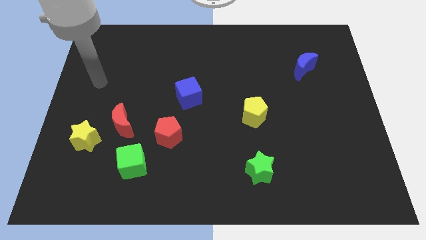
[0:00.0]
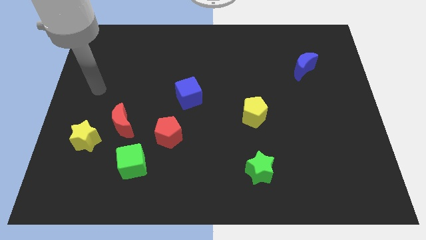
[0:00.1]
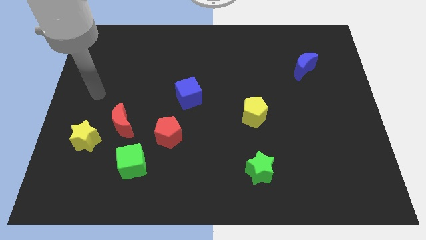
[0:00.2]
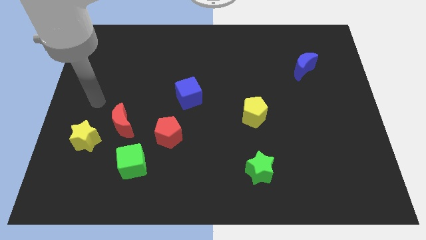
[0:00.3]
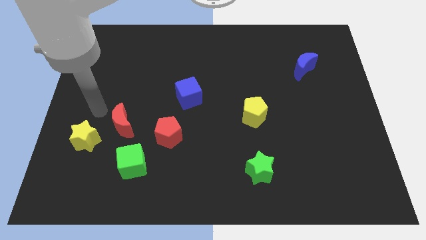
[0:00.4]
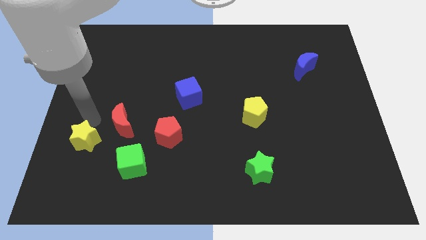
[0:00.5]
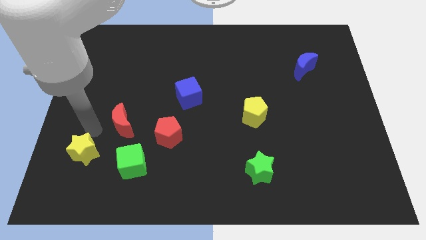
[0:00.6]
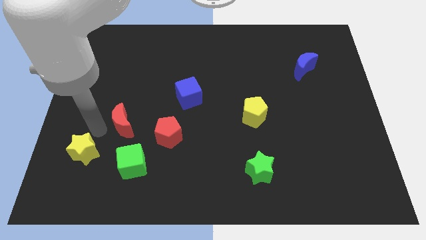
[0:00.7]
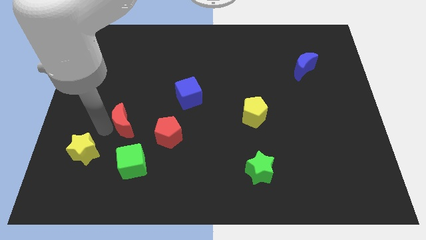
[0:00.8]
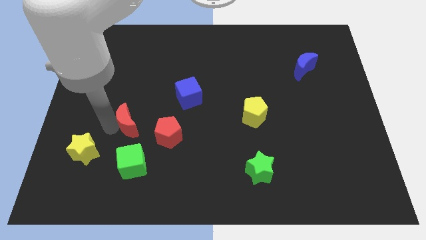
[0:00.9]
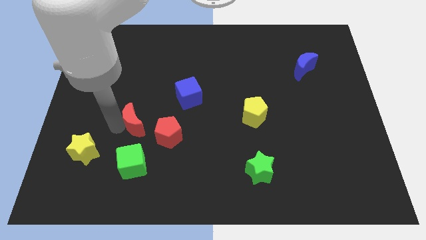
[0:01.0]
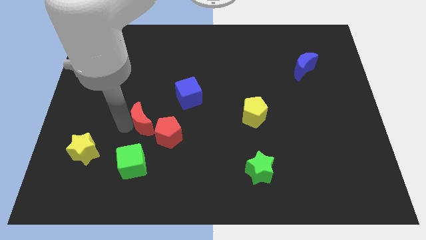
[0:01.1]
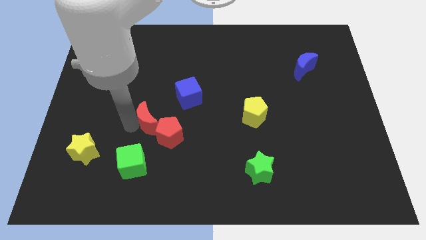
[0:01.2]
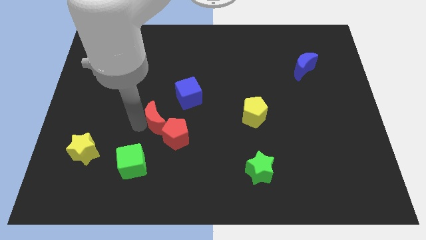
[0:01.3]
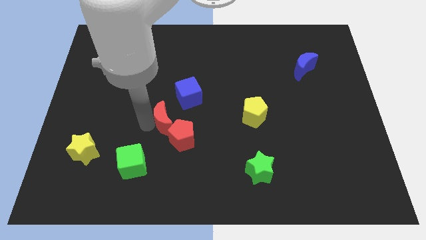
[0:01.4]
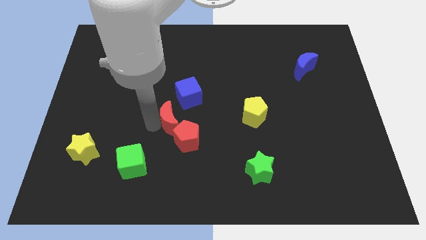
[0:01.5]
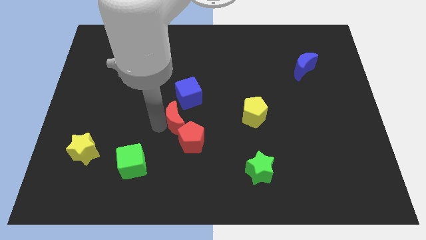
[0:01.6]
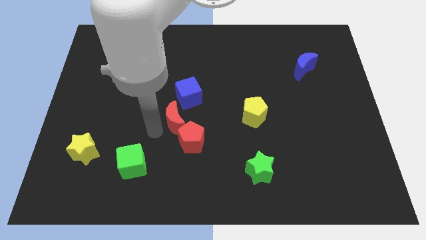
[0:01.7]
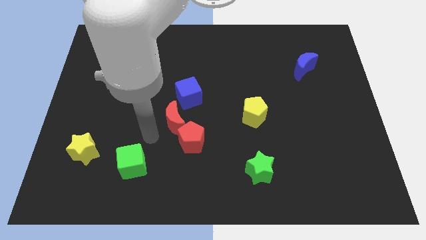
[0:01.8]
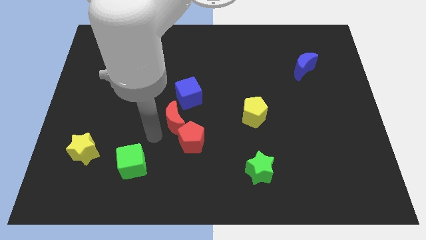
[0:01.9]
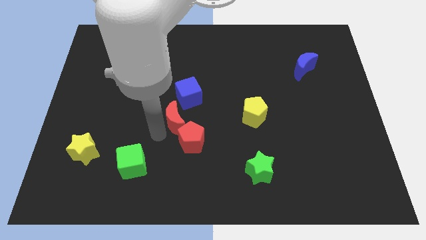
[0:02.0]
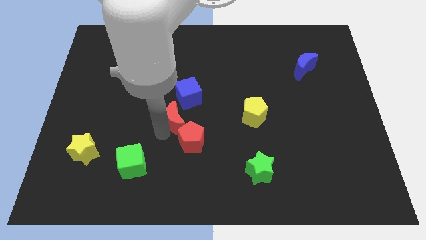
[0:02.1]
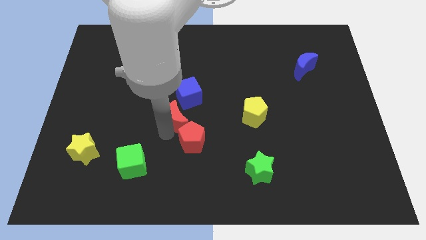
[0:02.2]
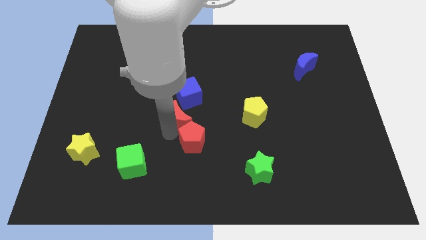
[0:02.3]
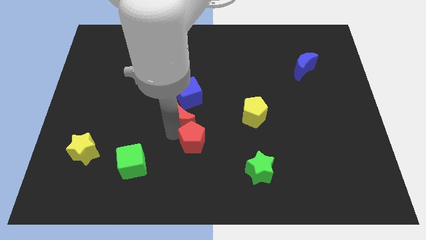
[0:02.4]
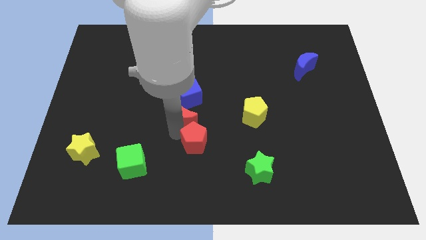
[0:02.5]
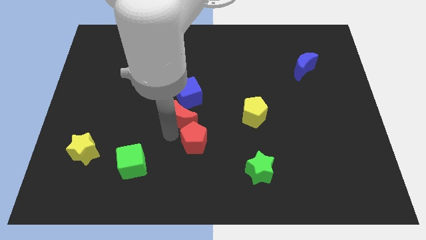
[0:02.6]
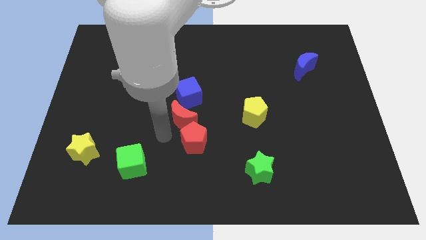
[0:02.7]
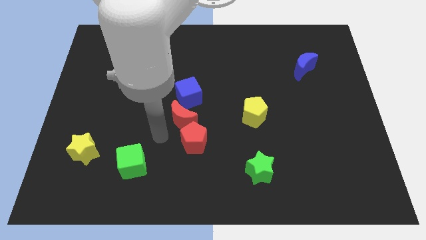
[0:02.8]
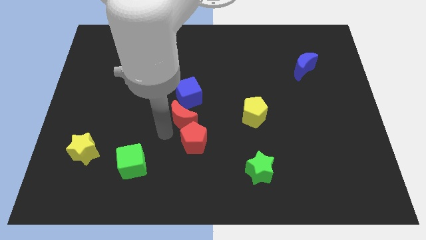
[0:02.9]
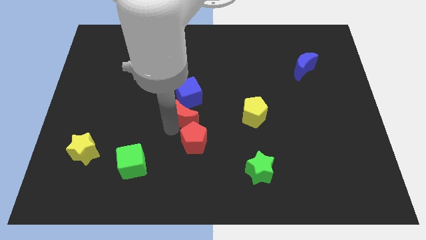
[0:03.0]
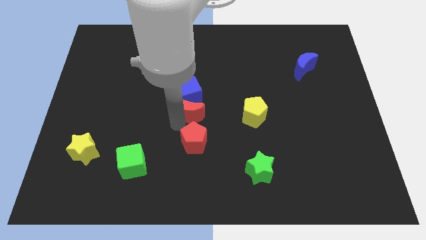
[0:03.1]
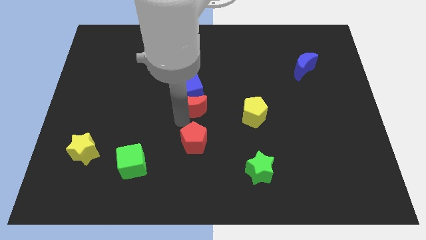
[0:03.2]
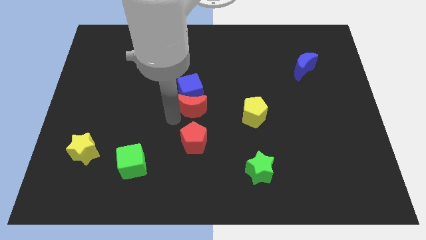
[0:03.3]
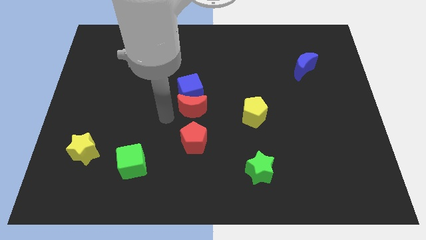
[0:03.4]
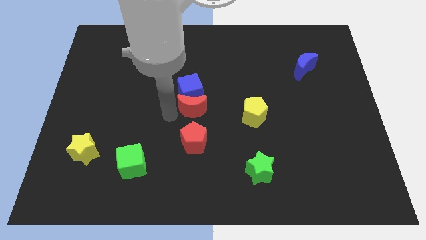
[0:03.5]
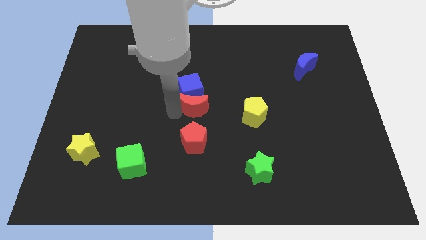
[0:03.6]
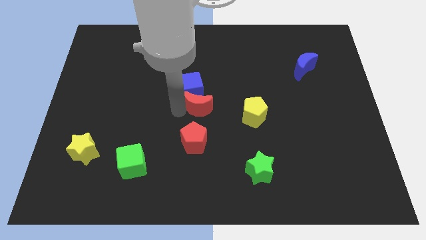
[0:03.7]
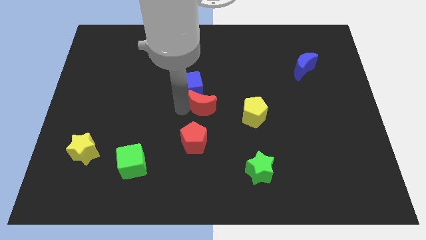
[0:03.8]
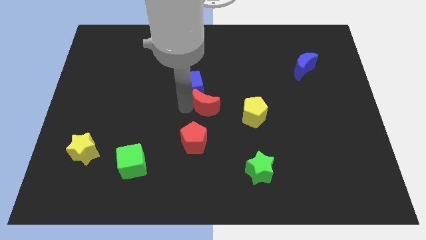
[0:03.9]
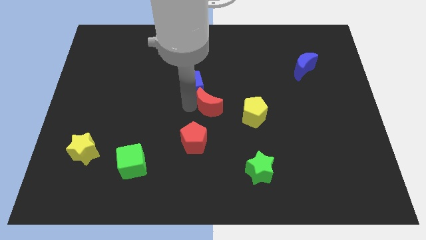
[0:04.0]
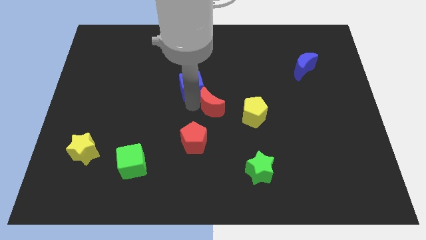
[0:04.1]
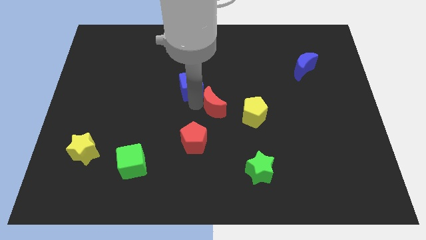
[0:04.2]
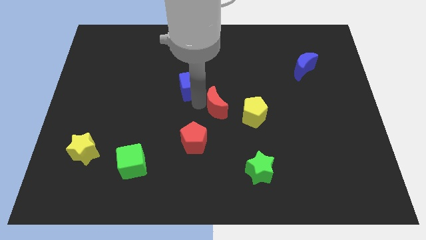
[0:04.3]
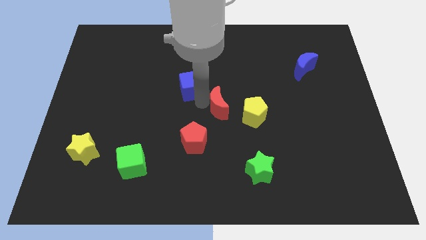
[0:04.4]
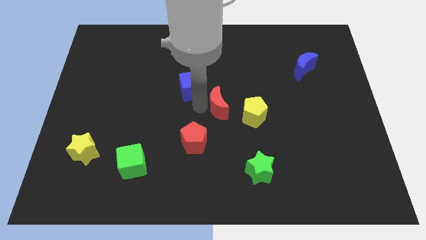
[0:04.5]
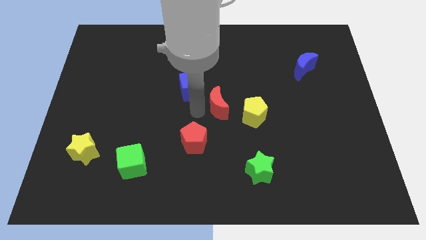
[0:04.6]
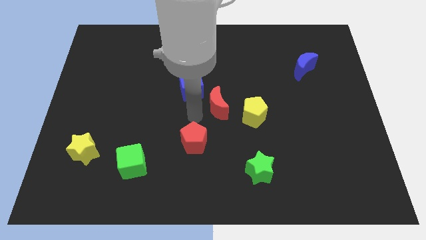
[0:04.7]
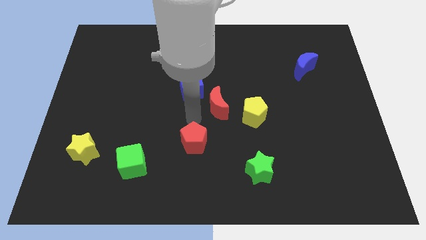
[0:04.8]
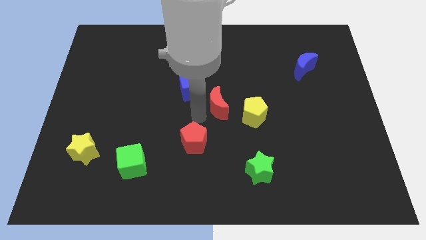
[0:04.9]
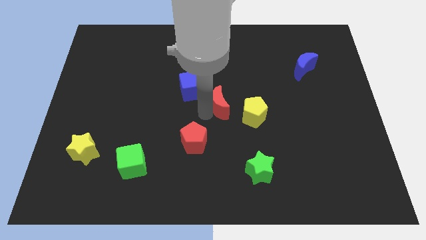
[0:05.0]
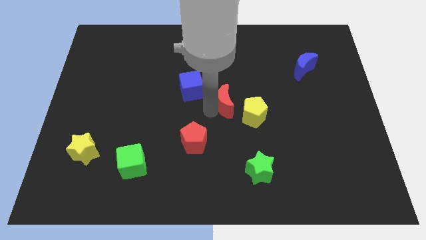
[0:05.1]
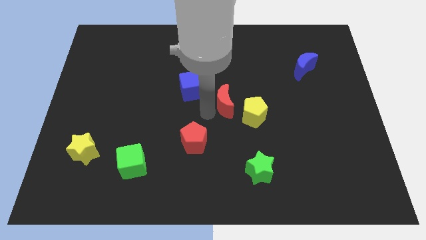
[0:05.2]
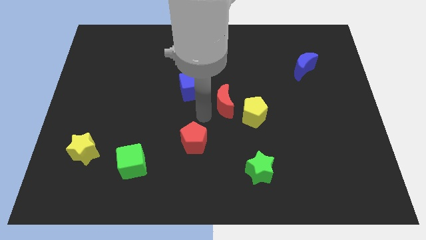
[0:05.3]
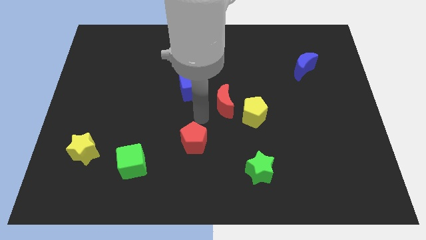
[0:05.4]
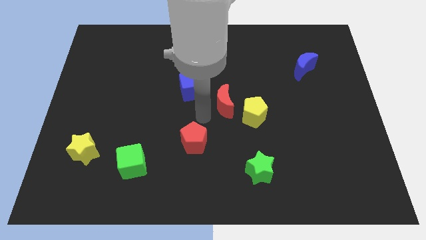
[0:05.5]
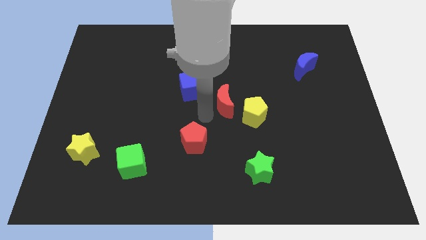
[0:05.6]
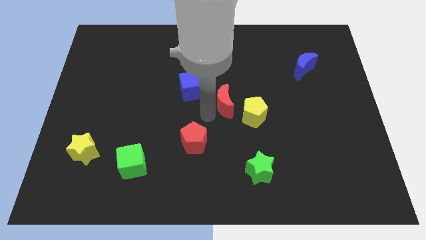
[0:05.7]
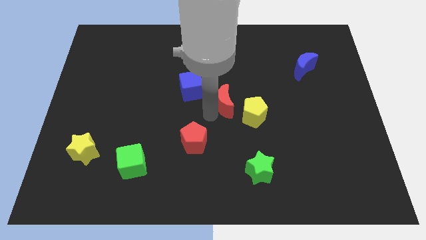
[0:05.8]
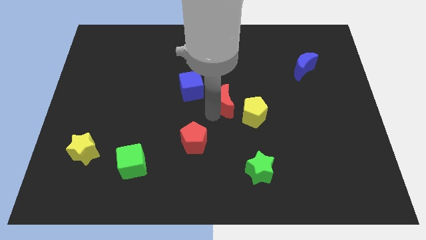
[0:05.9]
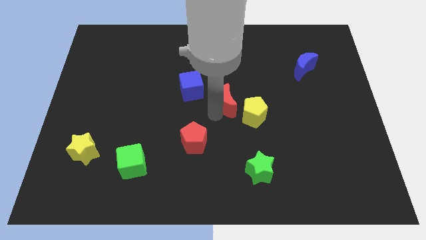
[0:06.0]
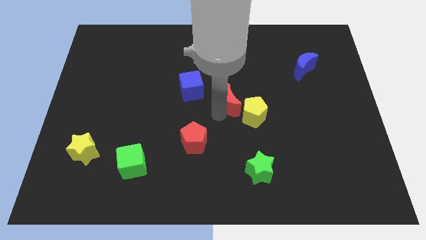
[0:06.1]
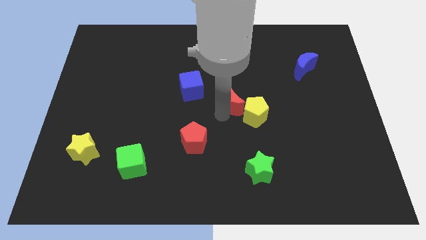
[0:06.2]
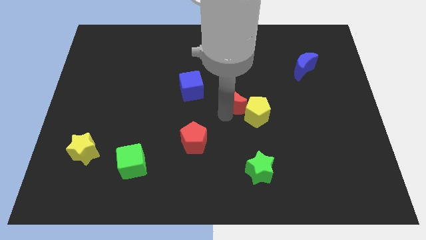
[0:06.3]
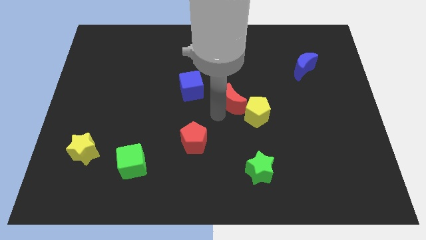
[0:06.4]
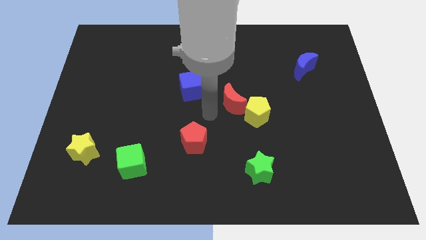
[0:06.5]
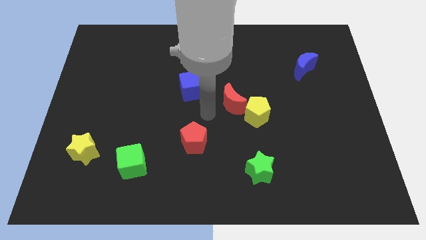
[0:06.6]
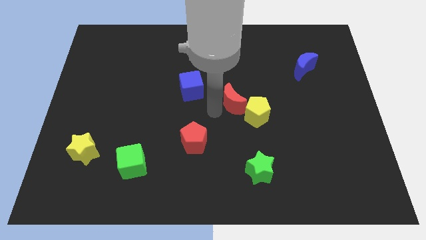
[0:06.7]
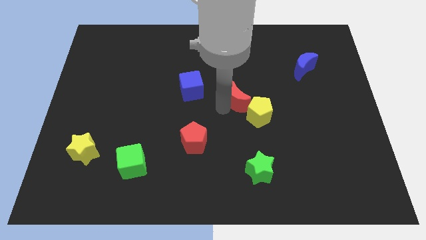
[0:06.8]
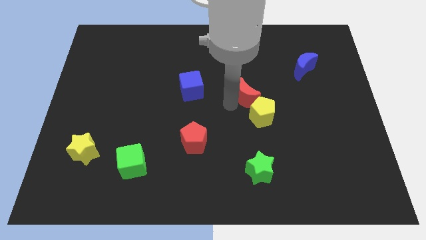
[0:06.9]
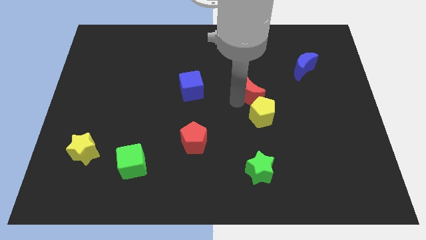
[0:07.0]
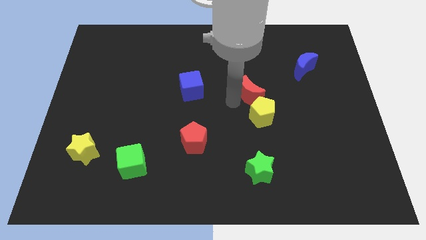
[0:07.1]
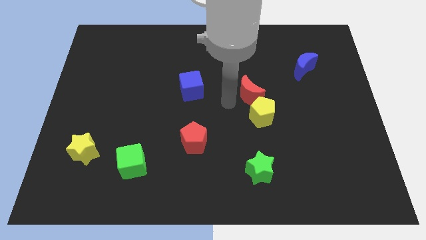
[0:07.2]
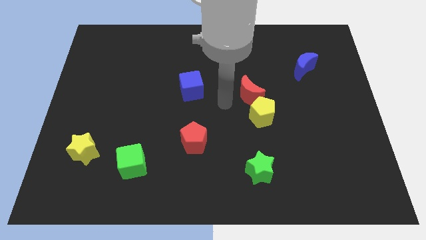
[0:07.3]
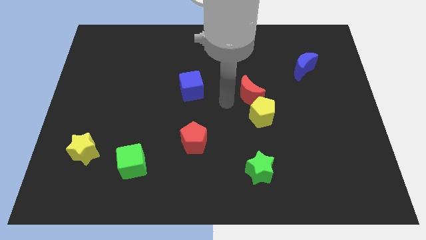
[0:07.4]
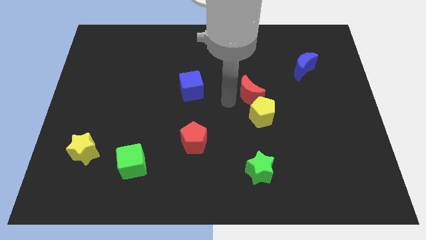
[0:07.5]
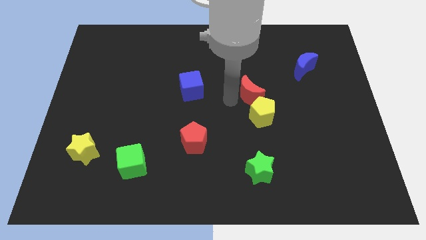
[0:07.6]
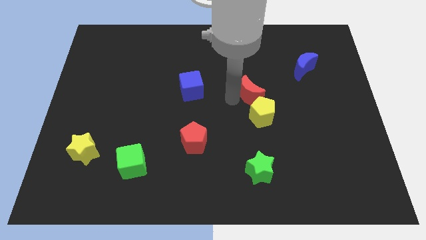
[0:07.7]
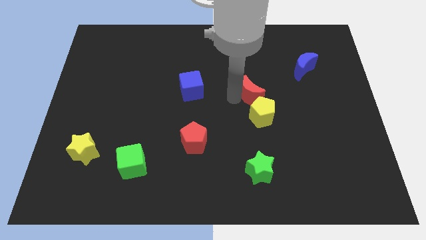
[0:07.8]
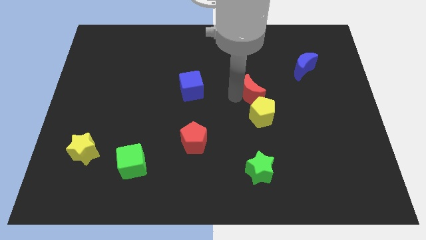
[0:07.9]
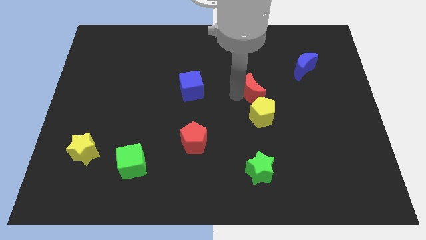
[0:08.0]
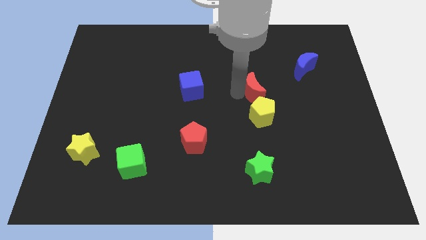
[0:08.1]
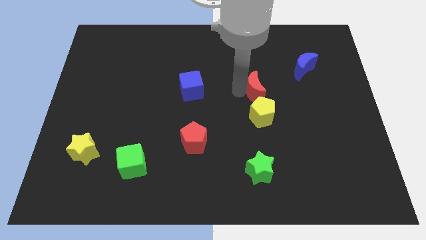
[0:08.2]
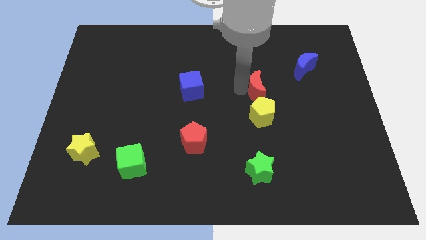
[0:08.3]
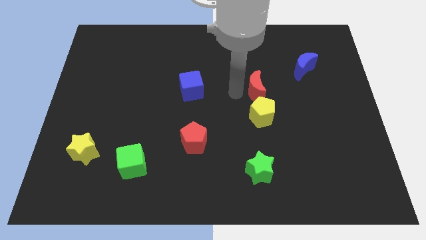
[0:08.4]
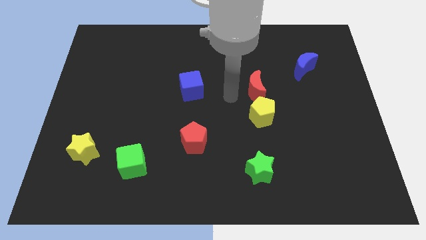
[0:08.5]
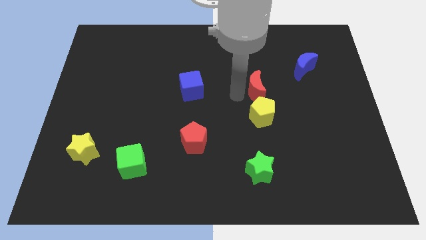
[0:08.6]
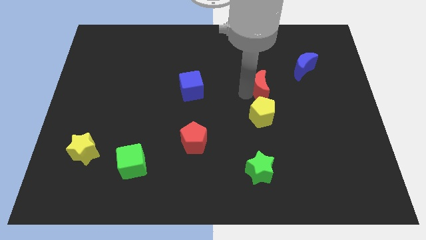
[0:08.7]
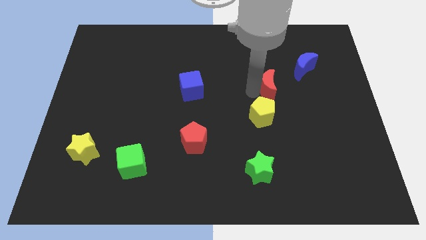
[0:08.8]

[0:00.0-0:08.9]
put the red moon to the bottom left of the blue moon
